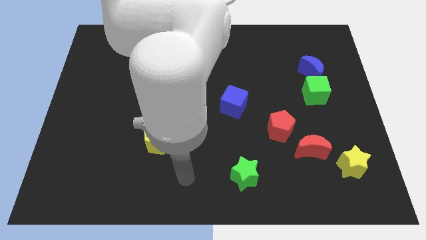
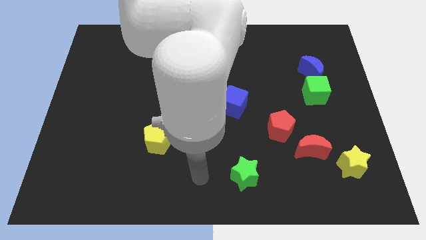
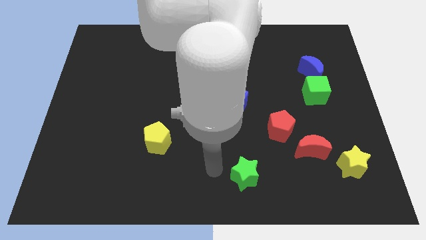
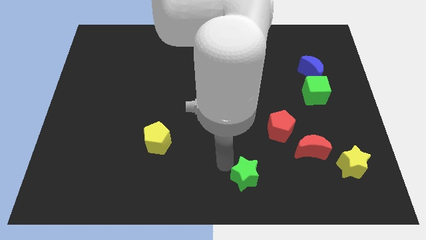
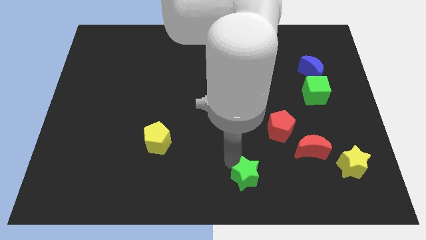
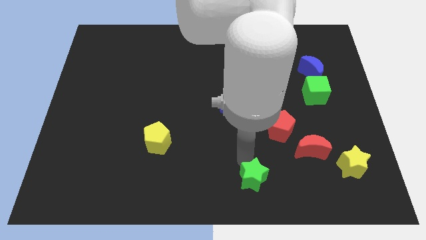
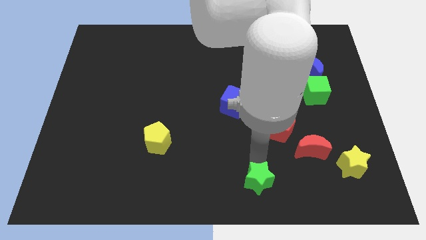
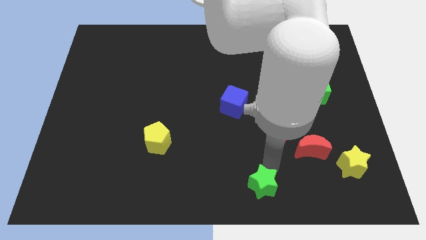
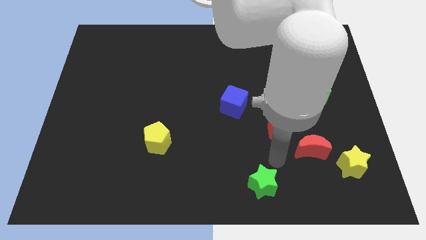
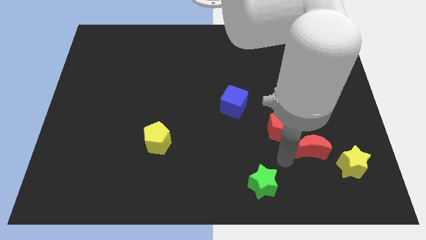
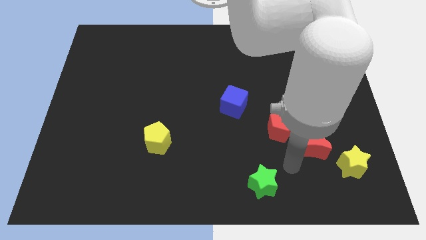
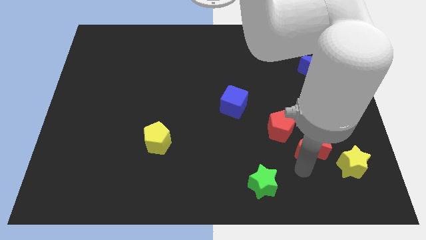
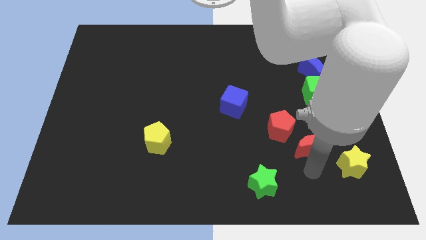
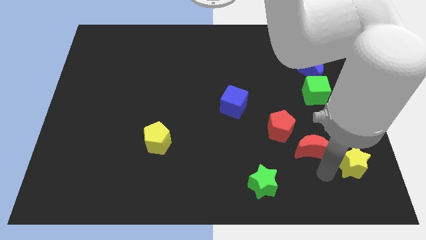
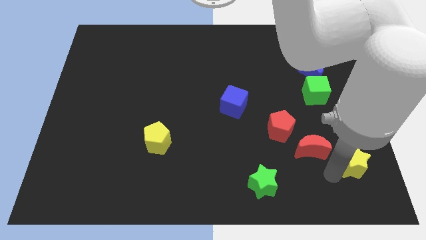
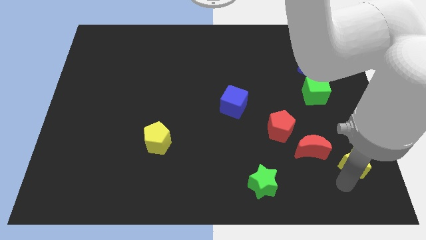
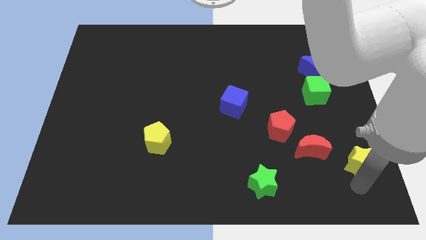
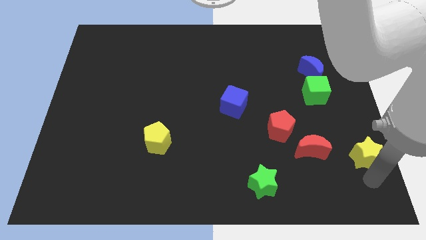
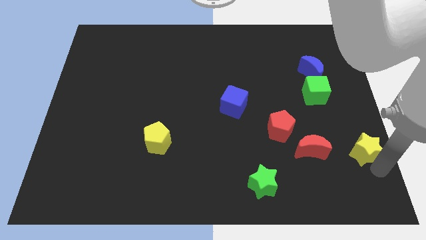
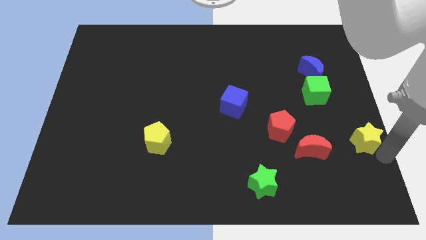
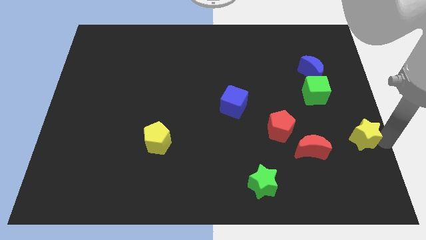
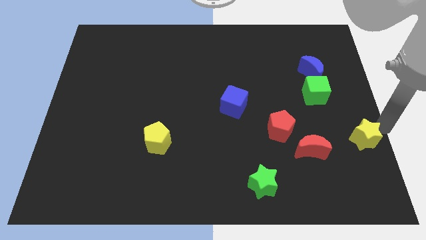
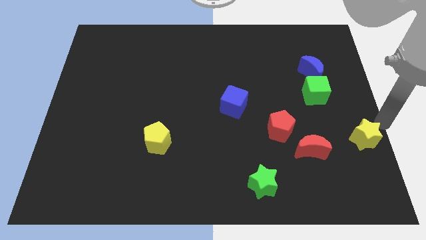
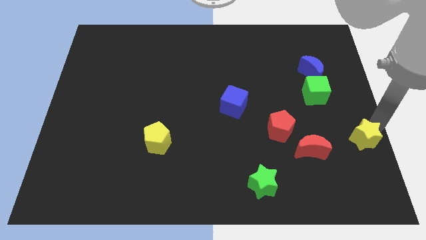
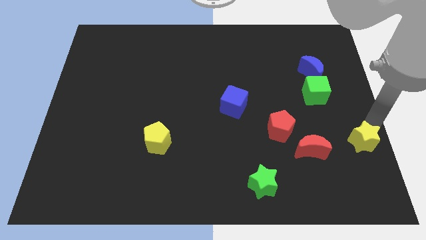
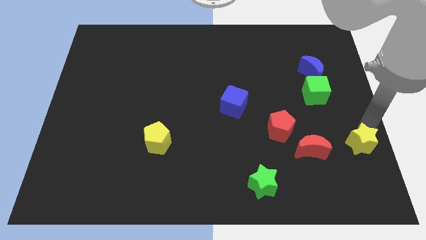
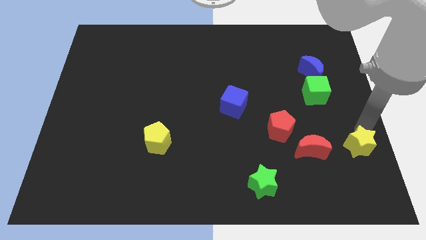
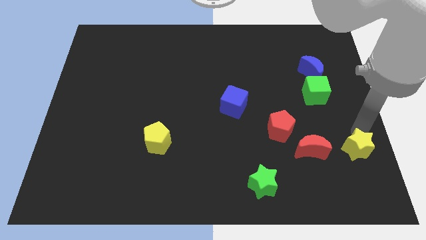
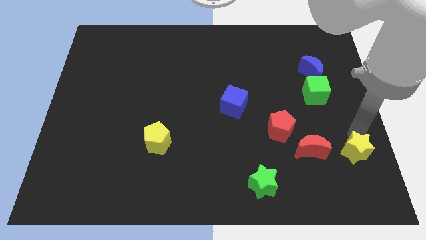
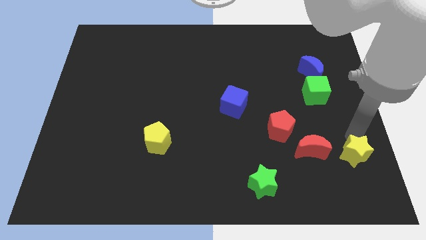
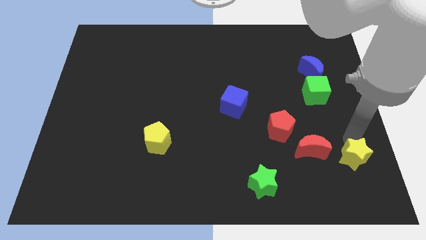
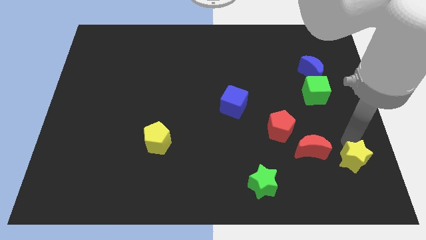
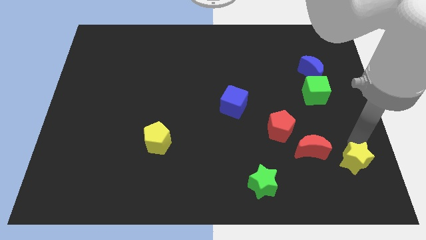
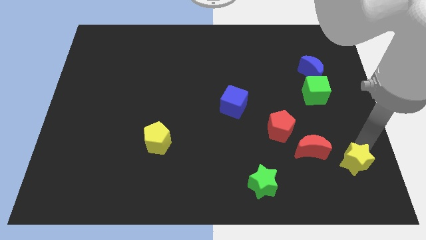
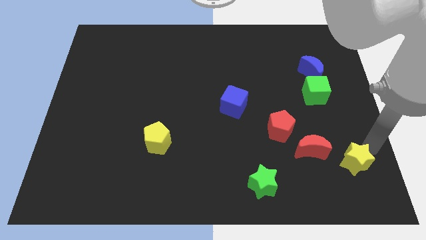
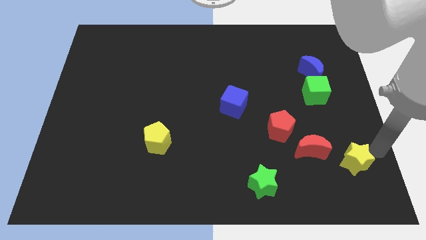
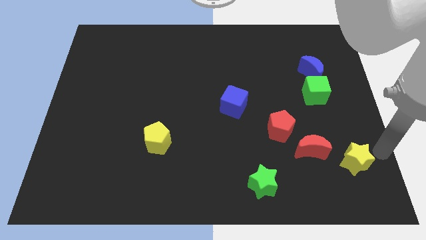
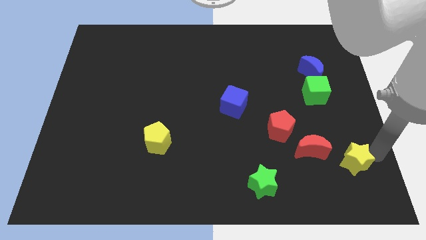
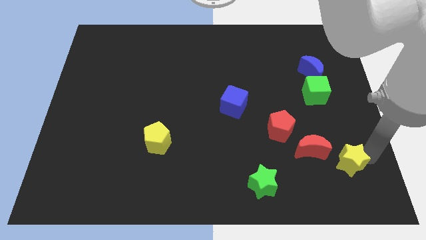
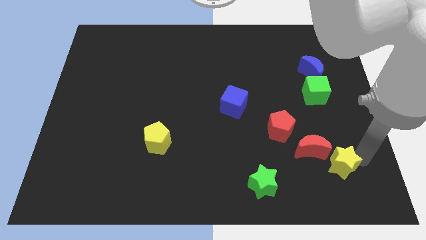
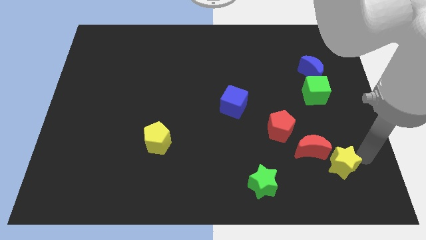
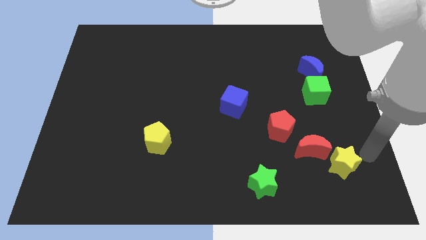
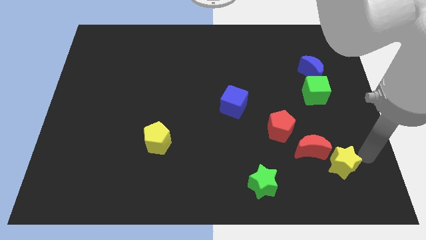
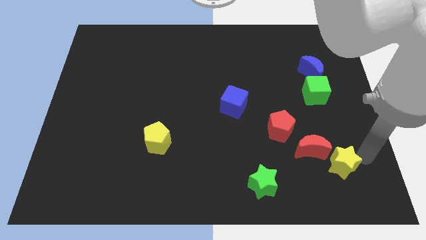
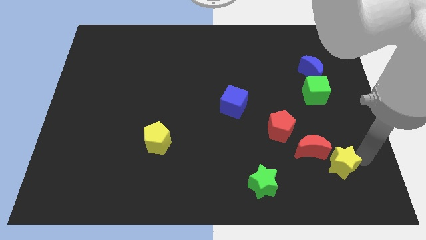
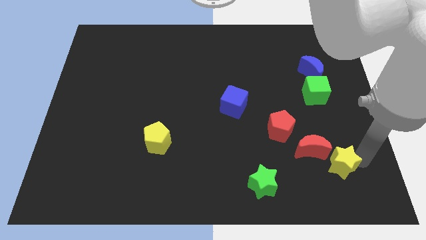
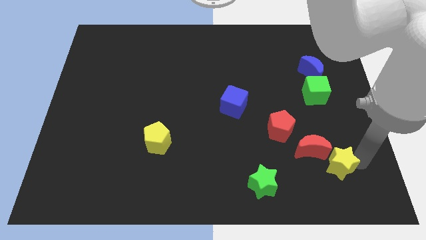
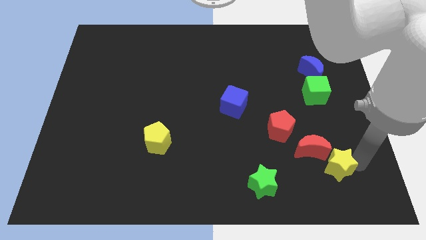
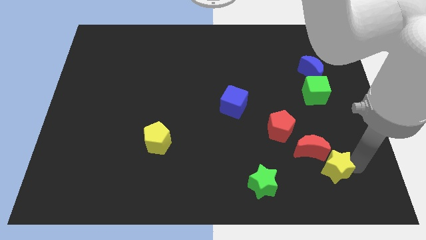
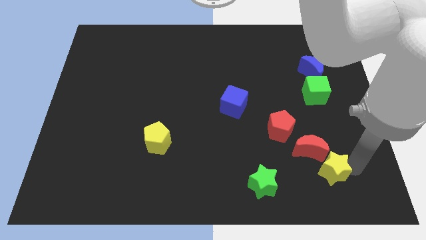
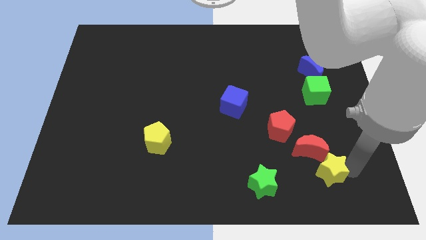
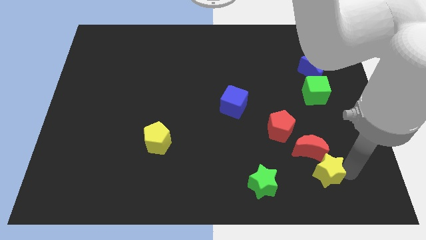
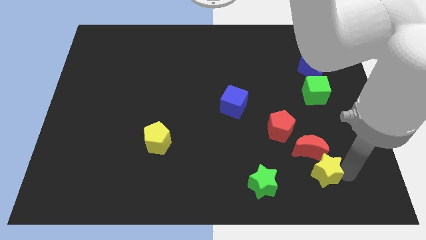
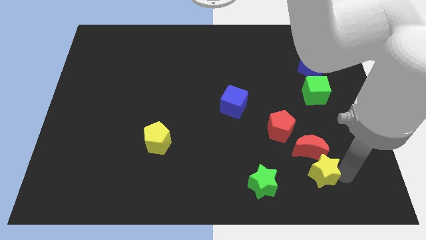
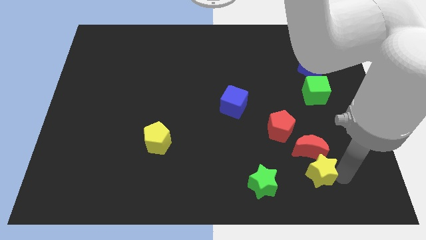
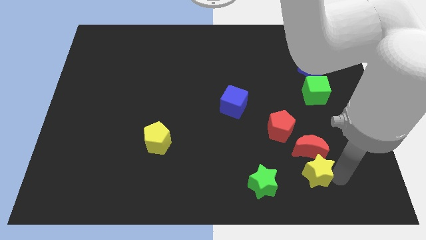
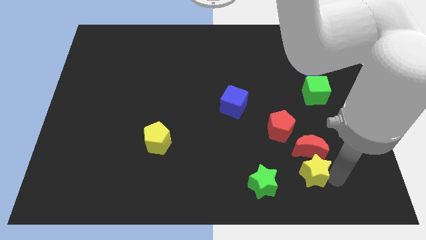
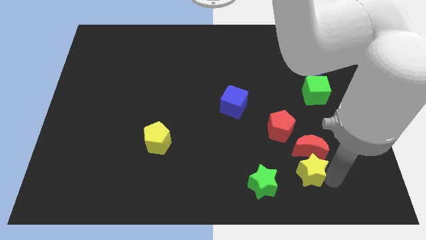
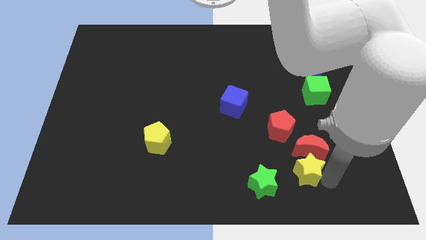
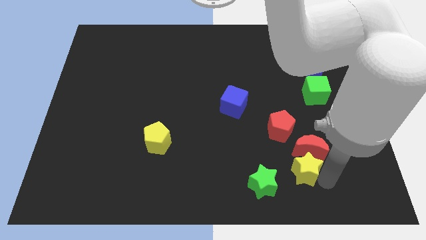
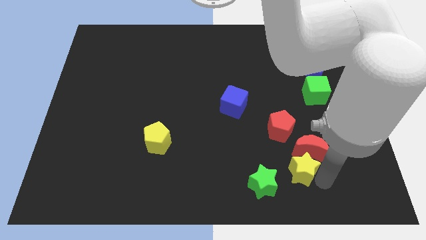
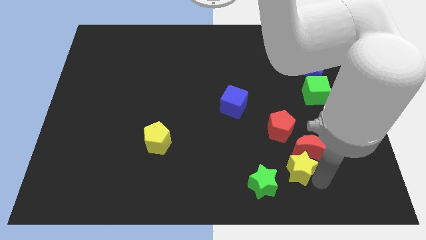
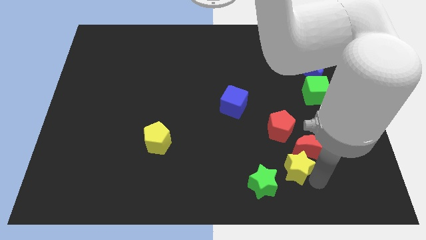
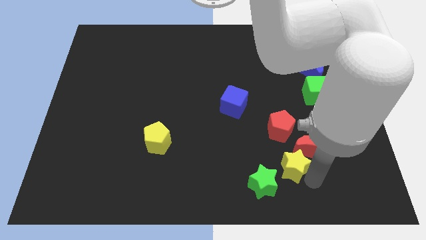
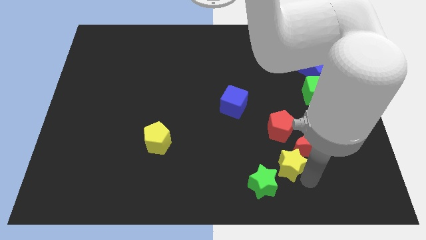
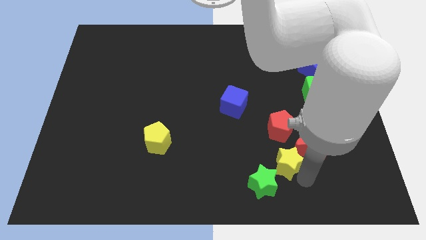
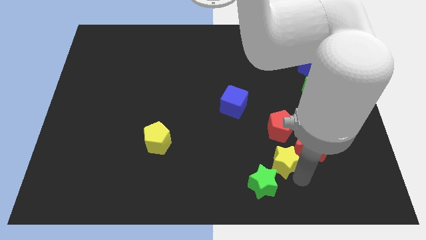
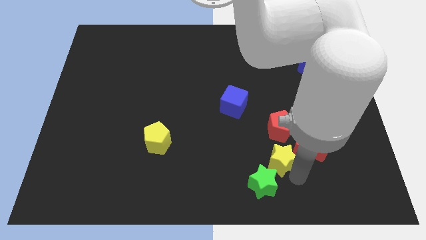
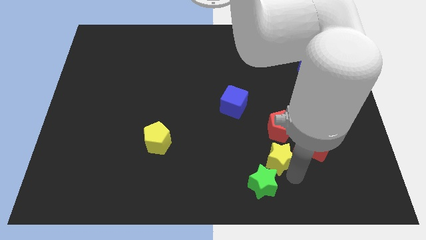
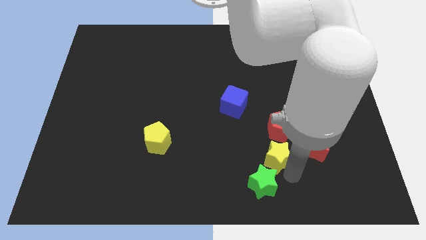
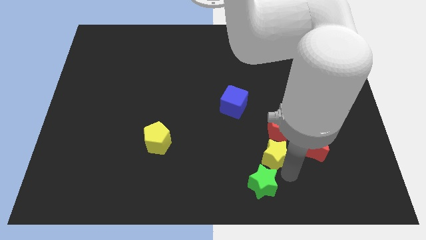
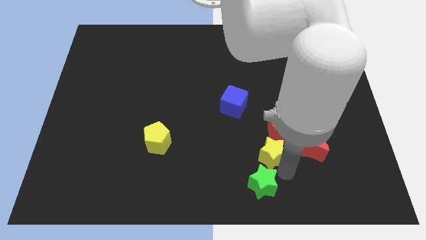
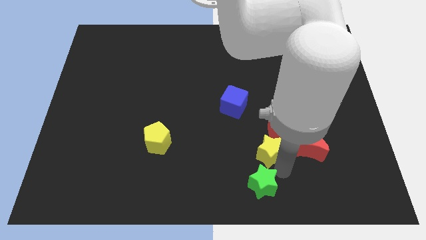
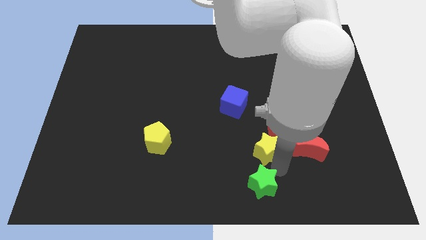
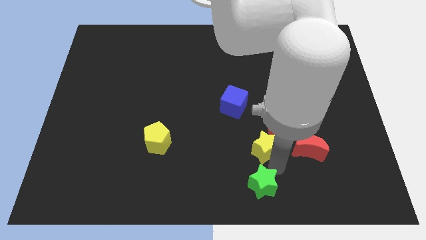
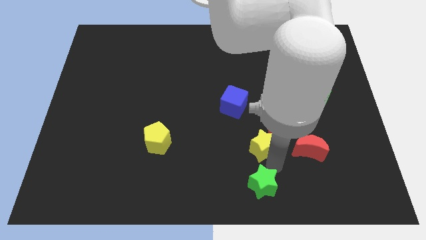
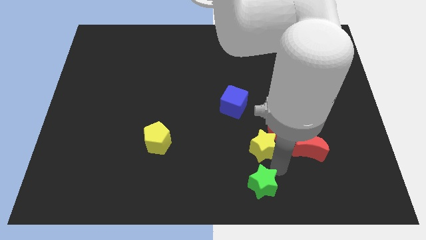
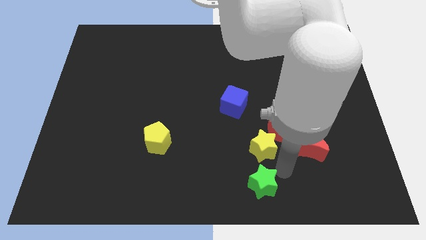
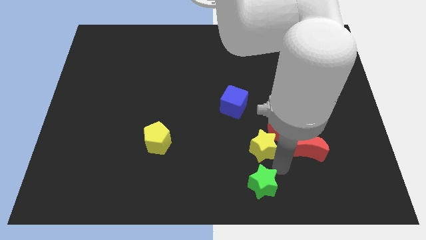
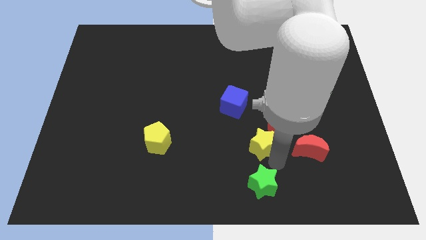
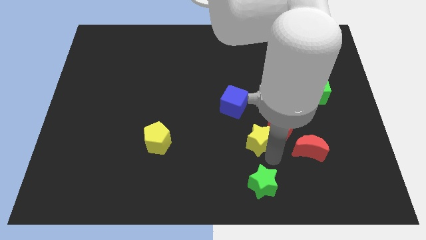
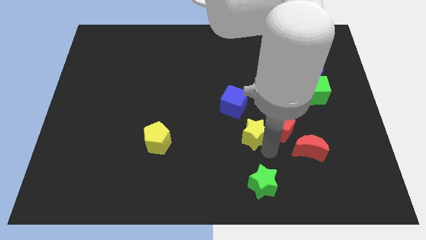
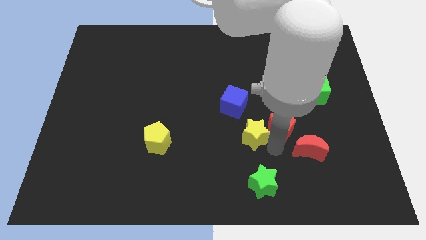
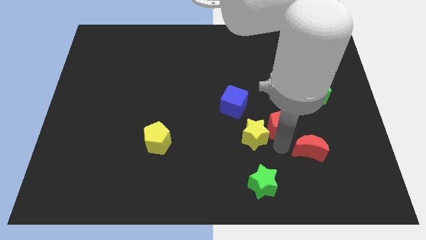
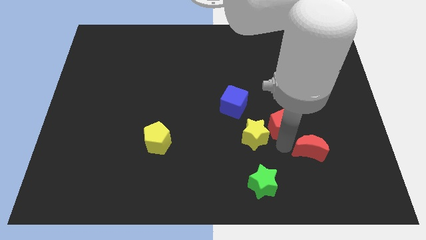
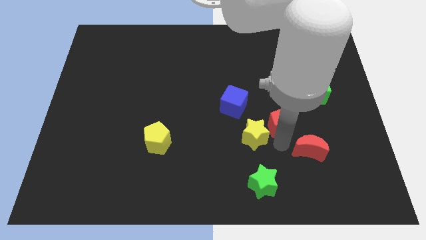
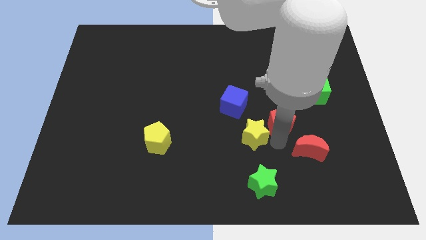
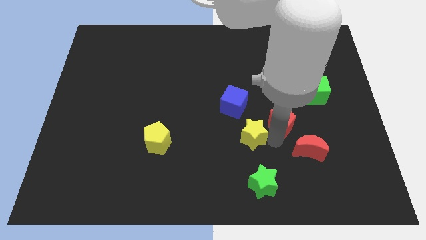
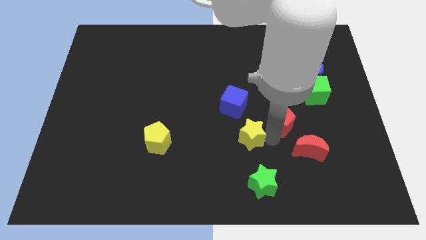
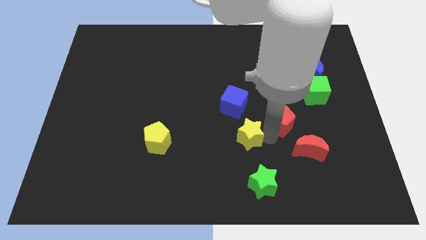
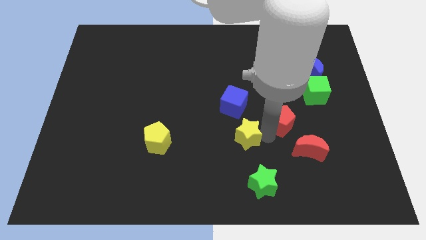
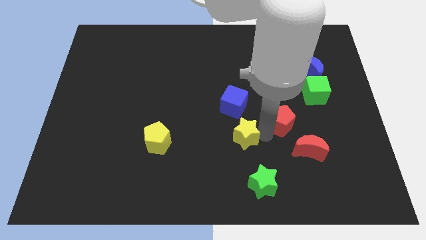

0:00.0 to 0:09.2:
push the yellow star to the middle of the board
